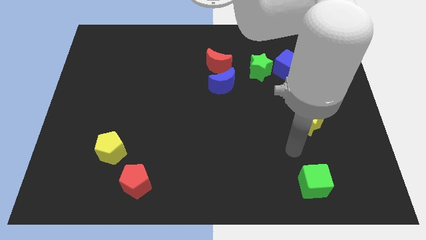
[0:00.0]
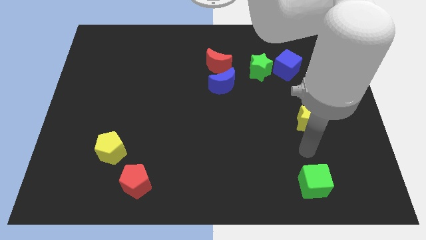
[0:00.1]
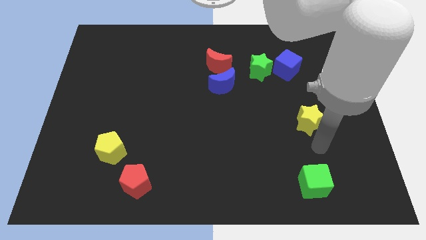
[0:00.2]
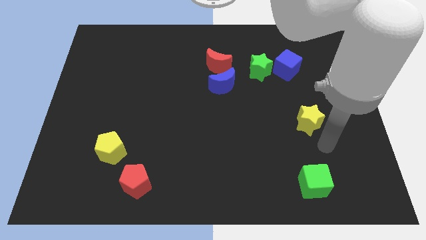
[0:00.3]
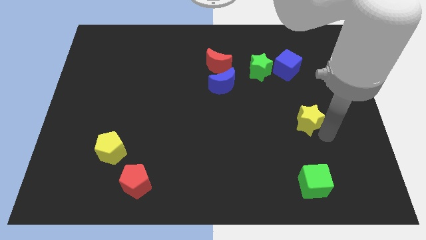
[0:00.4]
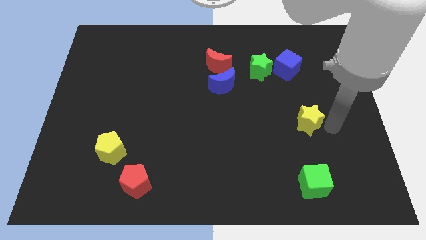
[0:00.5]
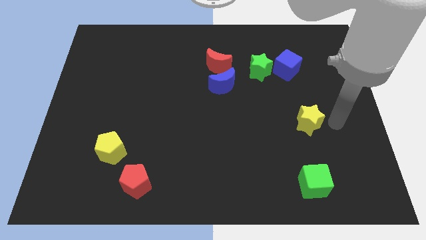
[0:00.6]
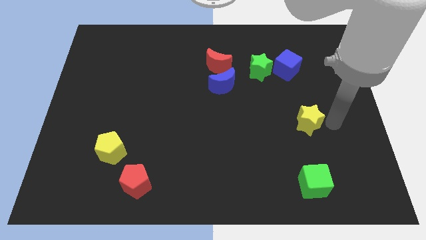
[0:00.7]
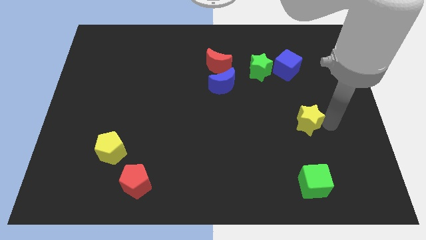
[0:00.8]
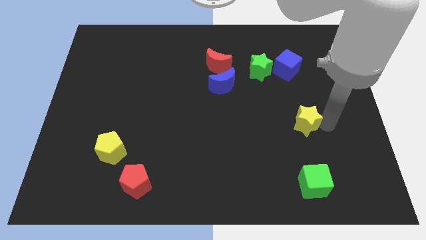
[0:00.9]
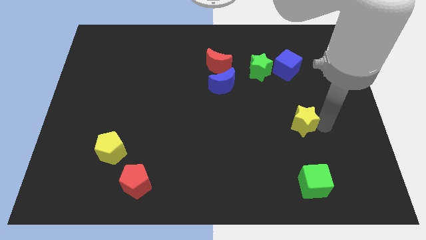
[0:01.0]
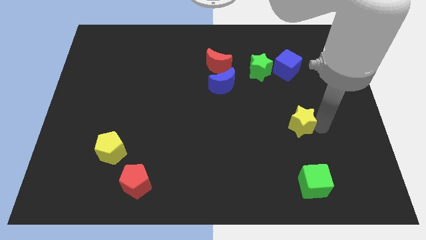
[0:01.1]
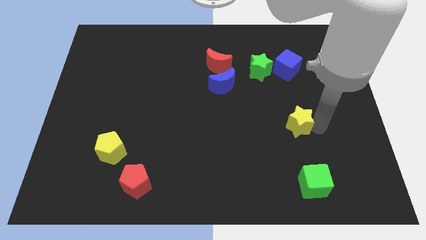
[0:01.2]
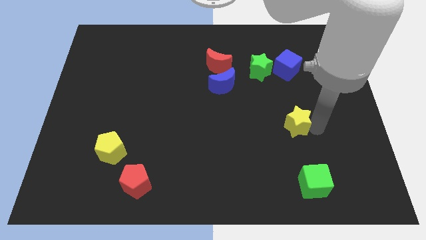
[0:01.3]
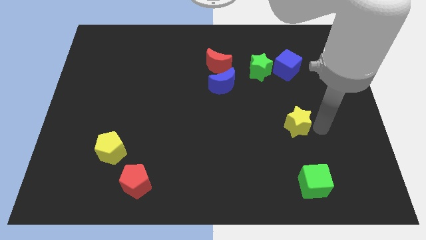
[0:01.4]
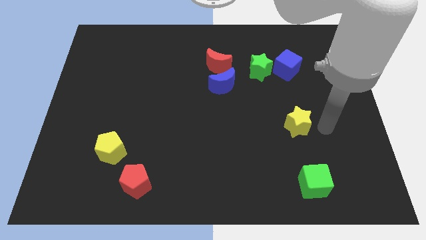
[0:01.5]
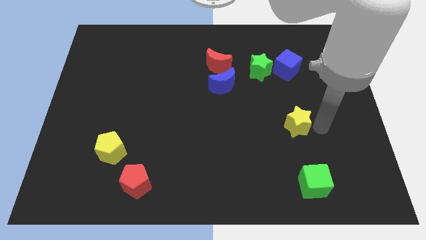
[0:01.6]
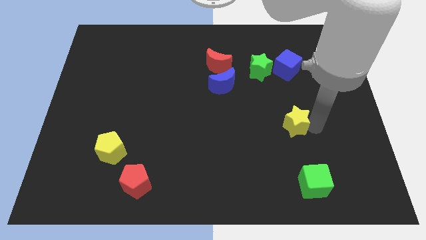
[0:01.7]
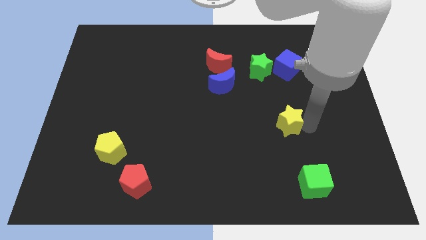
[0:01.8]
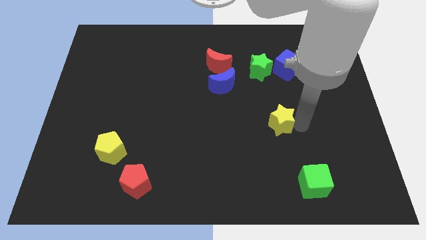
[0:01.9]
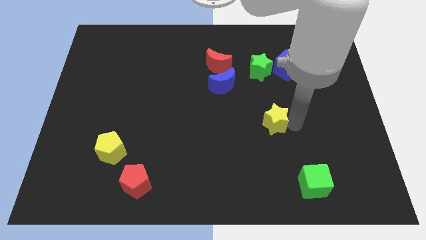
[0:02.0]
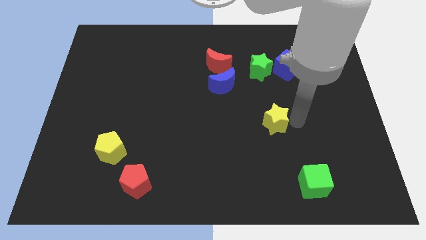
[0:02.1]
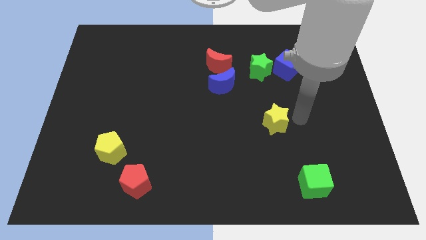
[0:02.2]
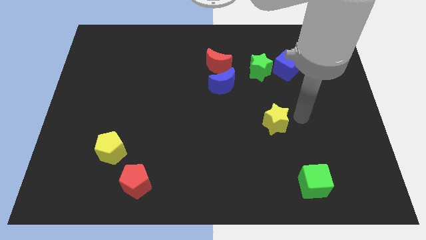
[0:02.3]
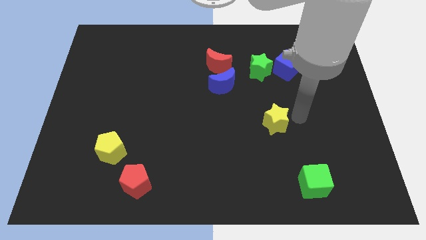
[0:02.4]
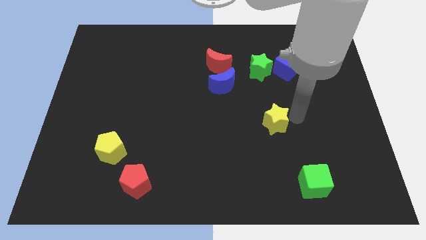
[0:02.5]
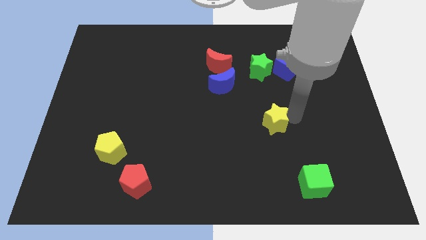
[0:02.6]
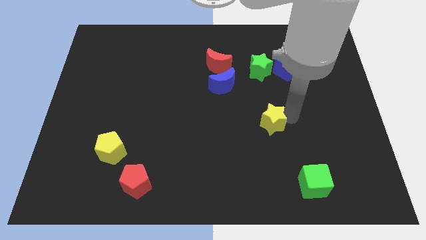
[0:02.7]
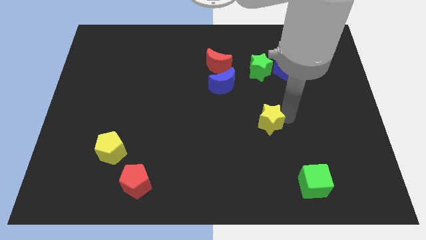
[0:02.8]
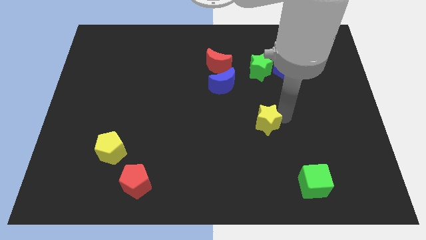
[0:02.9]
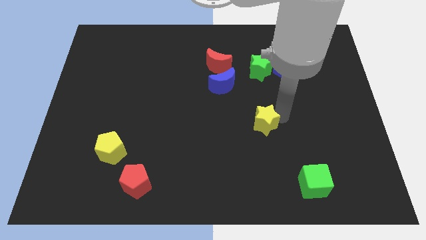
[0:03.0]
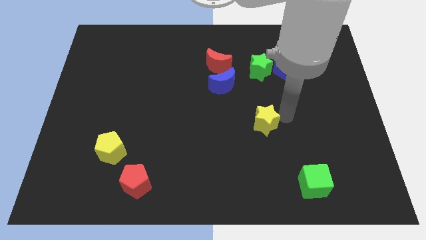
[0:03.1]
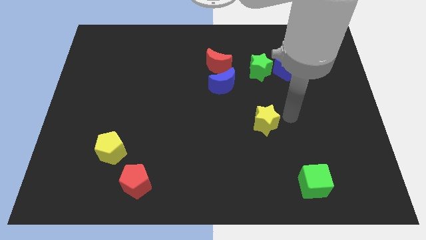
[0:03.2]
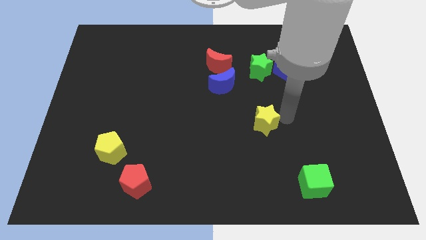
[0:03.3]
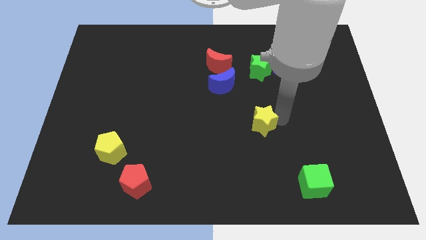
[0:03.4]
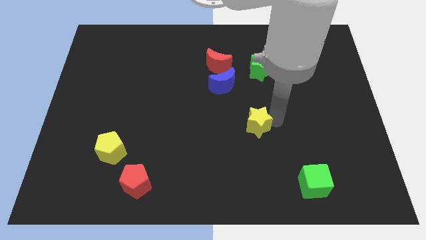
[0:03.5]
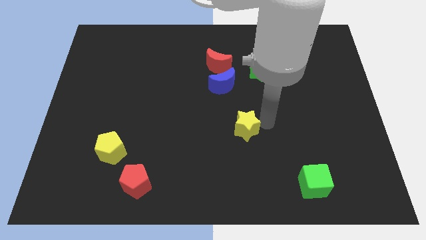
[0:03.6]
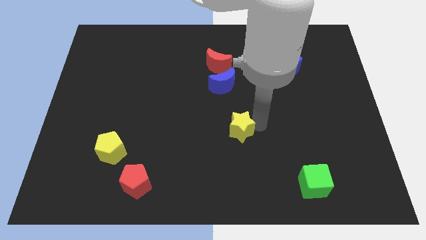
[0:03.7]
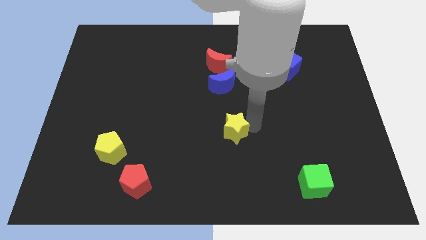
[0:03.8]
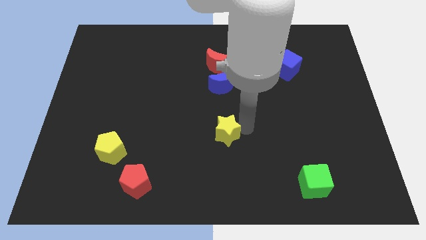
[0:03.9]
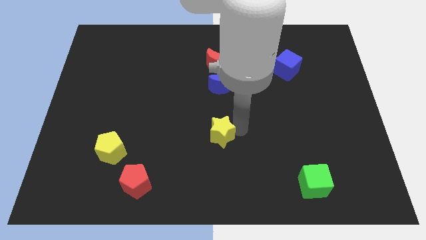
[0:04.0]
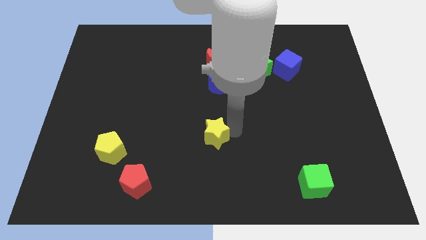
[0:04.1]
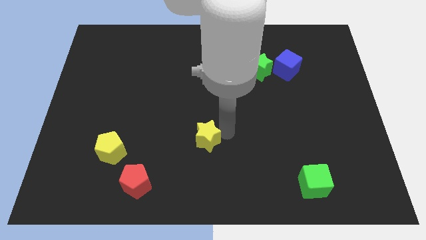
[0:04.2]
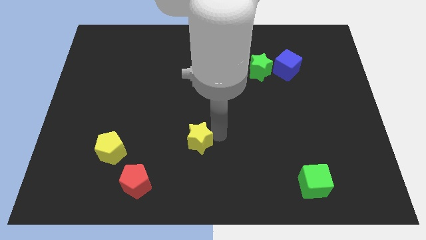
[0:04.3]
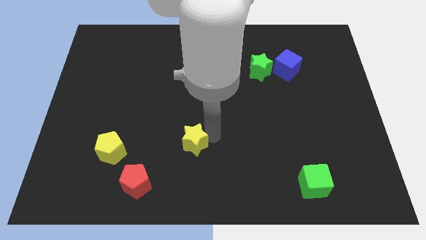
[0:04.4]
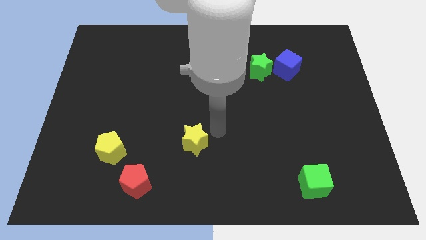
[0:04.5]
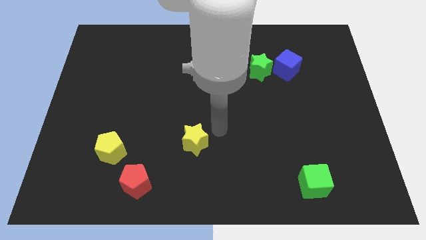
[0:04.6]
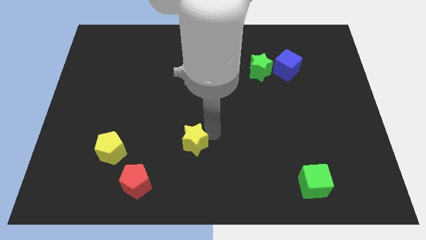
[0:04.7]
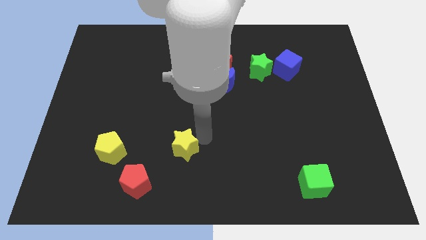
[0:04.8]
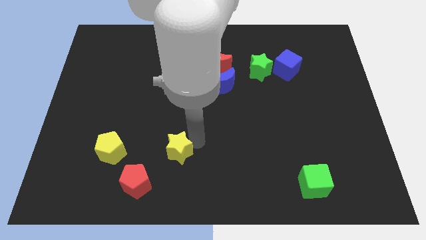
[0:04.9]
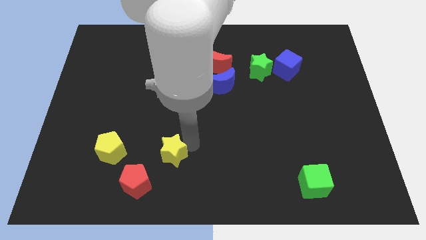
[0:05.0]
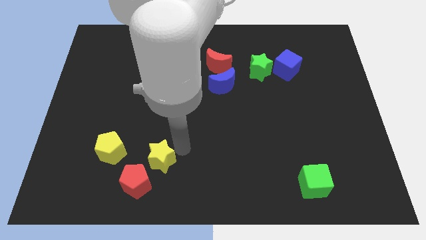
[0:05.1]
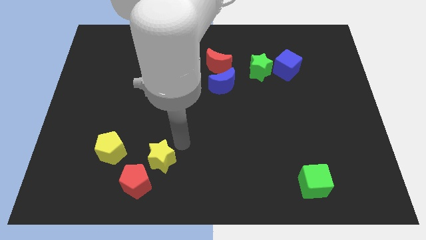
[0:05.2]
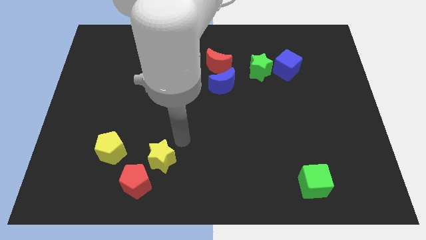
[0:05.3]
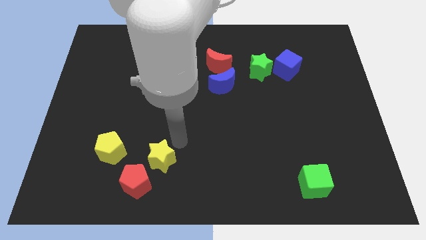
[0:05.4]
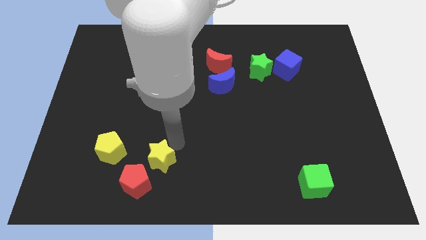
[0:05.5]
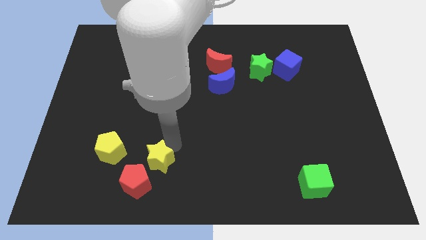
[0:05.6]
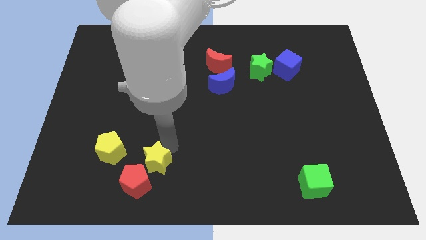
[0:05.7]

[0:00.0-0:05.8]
move the yellow star to the red pentagon

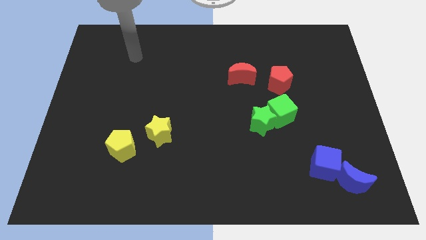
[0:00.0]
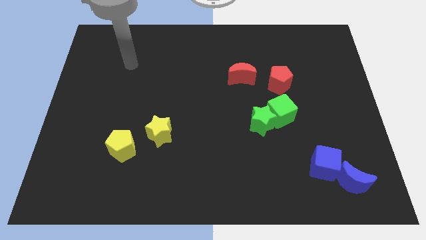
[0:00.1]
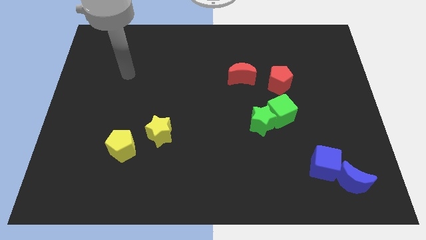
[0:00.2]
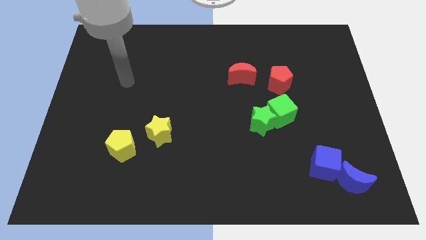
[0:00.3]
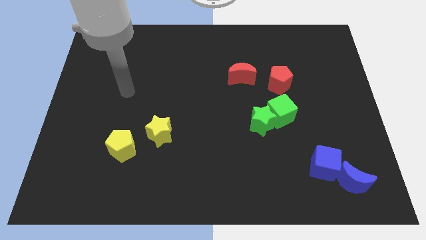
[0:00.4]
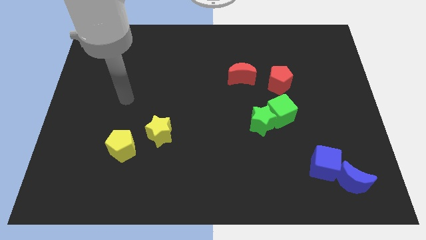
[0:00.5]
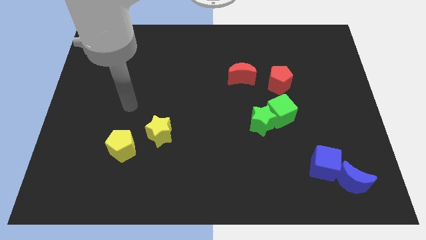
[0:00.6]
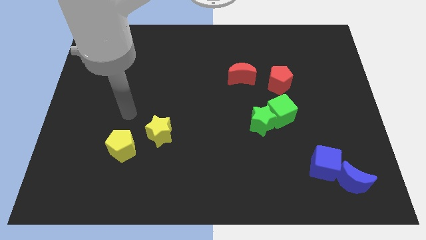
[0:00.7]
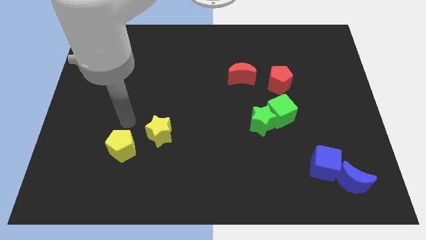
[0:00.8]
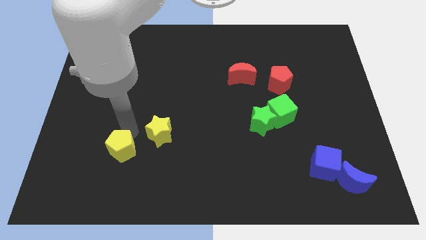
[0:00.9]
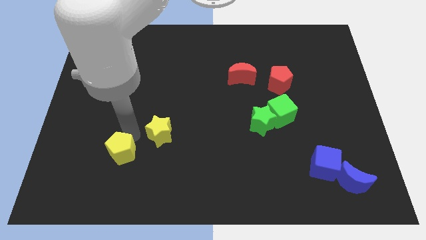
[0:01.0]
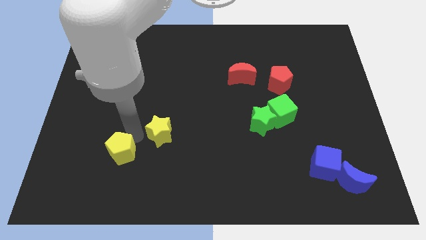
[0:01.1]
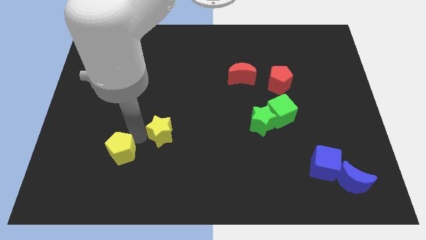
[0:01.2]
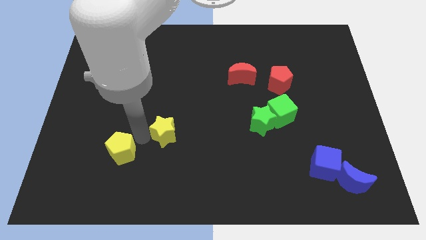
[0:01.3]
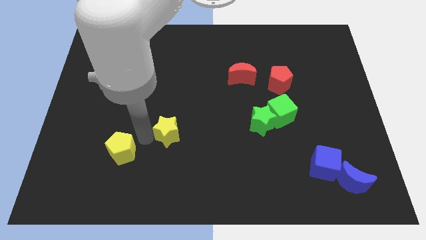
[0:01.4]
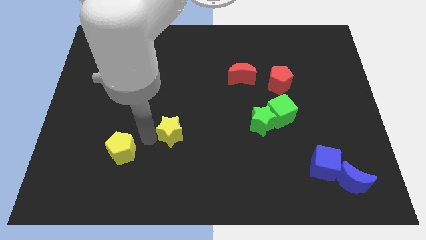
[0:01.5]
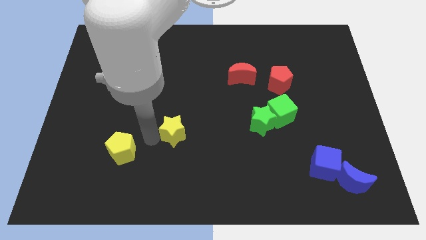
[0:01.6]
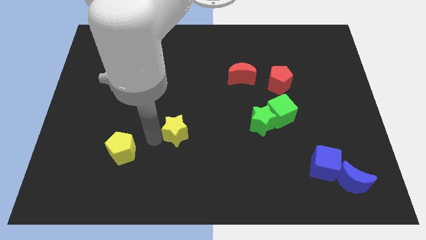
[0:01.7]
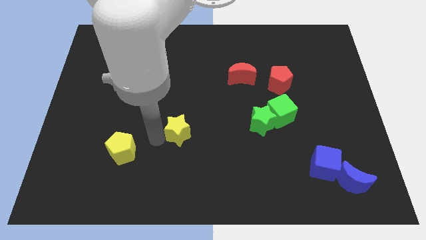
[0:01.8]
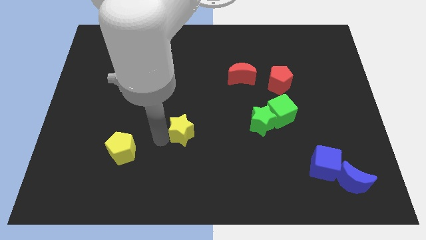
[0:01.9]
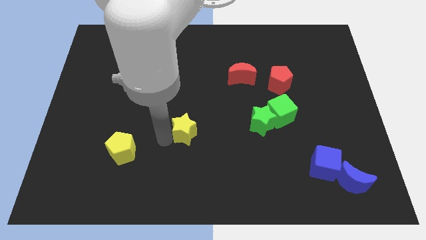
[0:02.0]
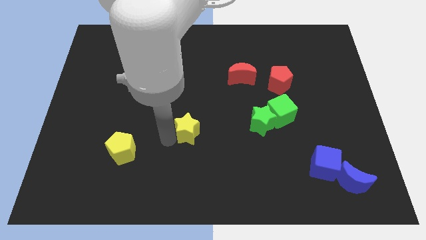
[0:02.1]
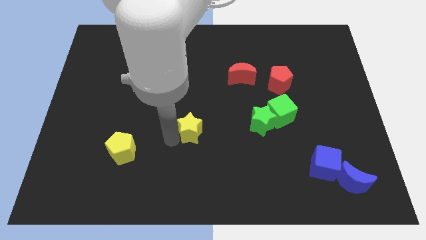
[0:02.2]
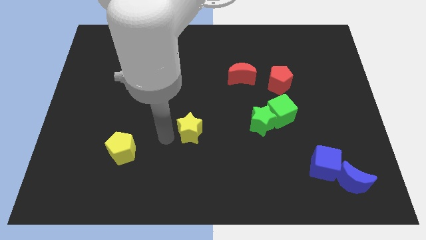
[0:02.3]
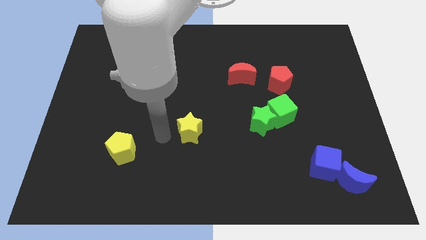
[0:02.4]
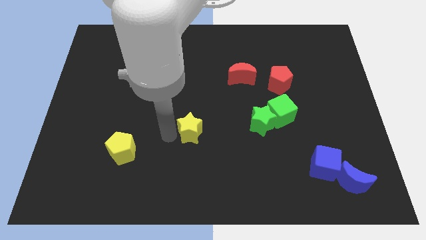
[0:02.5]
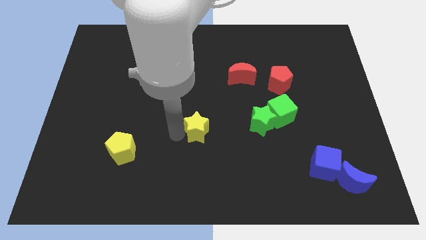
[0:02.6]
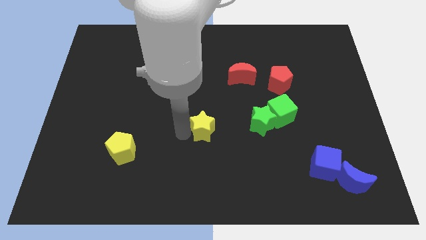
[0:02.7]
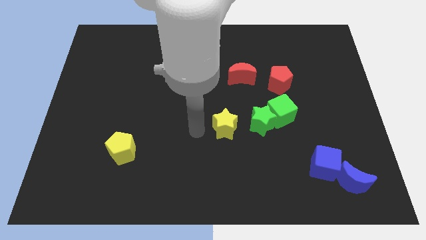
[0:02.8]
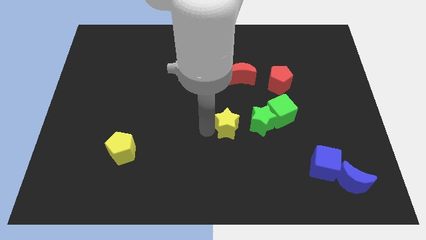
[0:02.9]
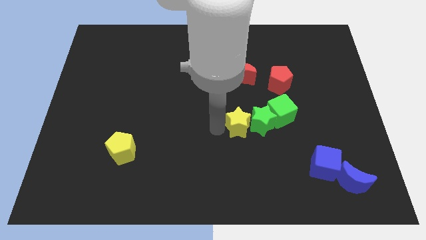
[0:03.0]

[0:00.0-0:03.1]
move the yellow star close to the green star
